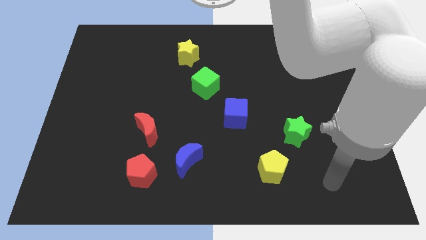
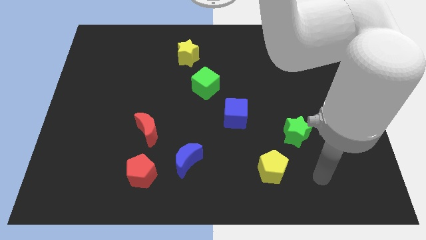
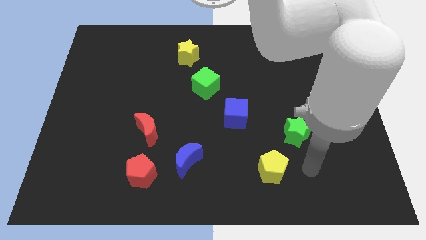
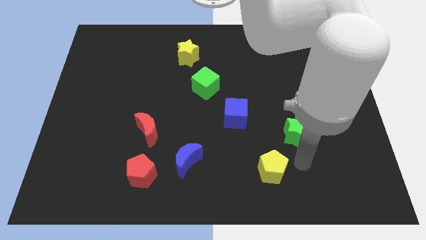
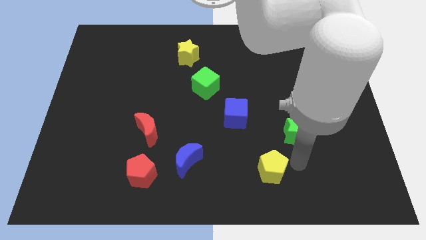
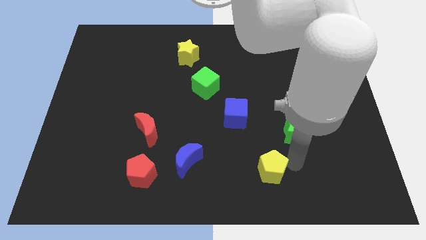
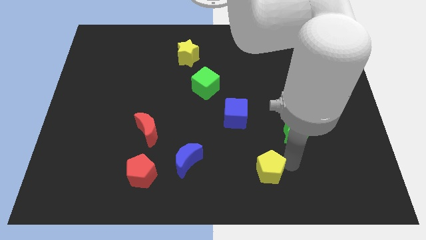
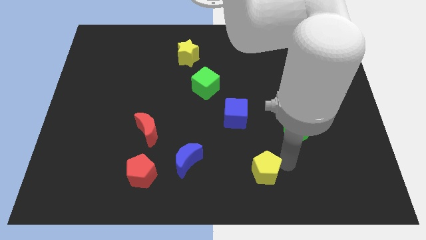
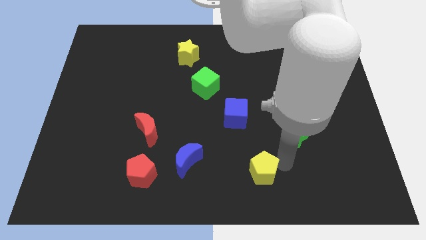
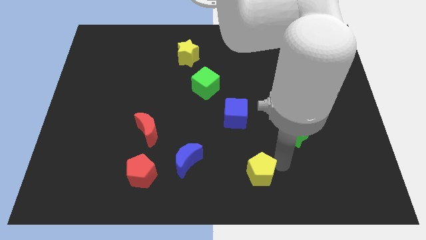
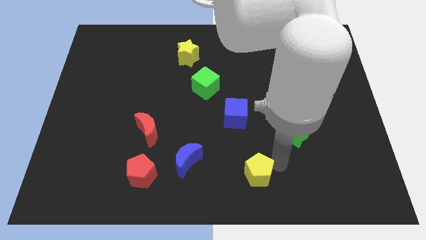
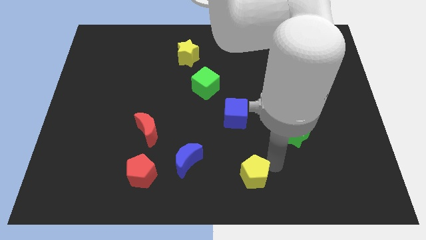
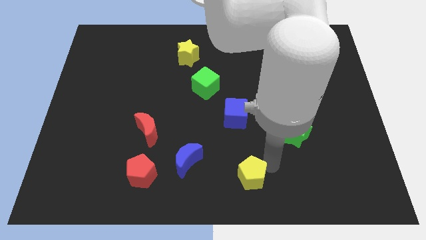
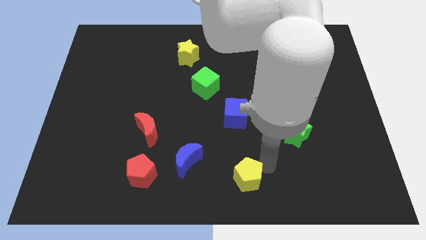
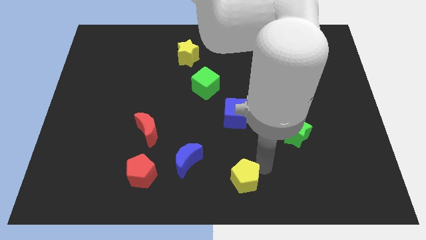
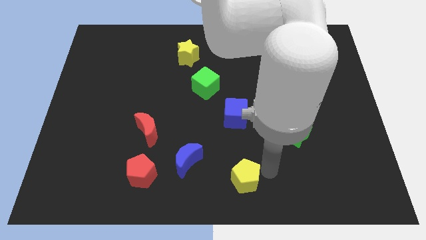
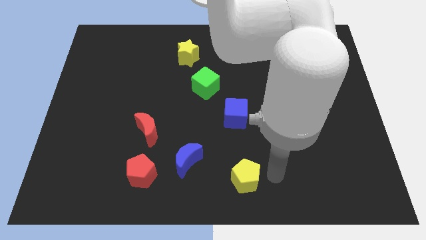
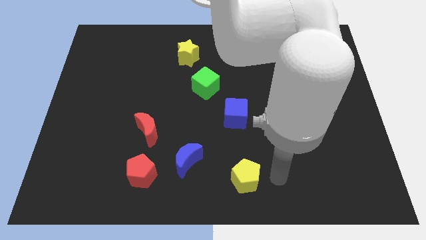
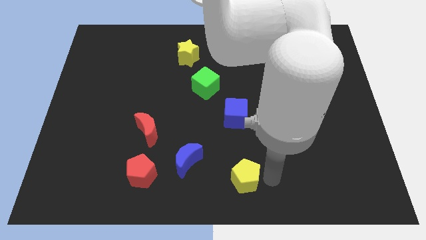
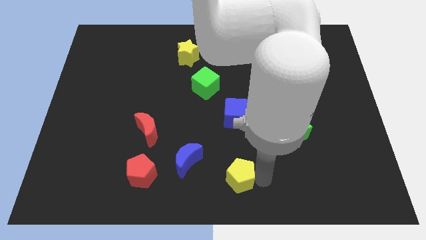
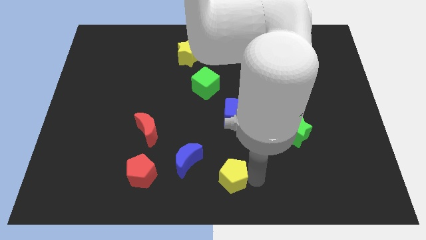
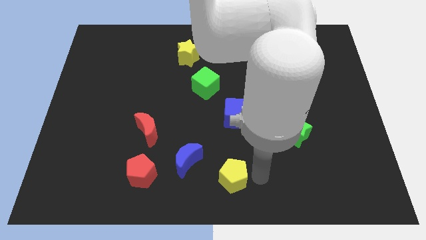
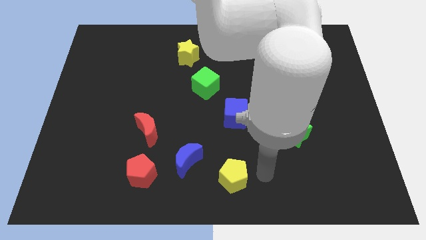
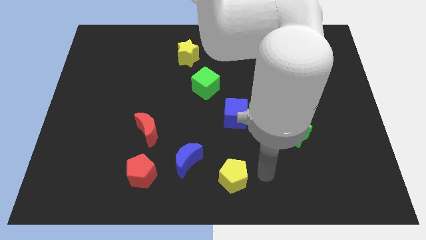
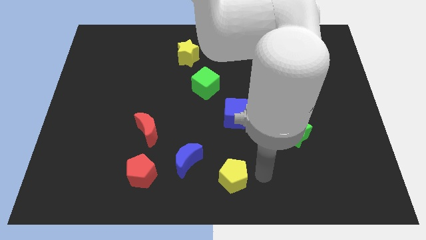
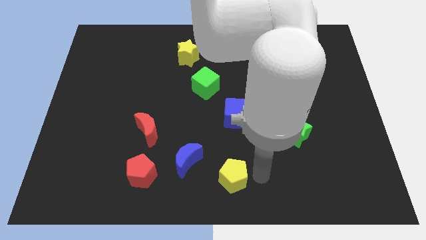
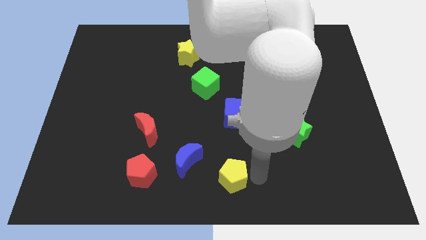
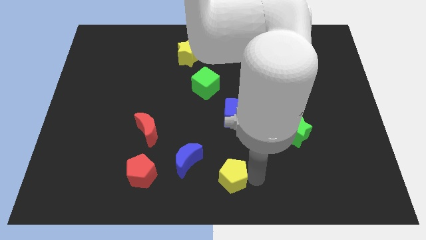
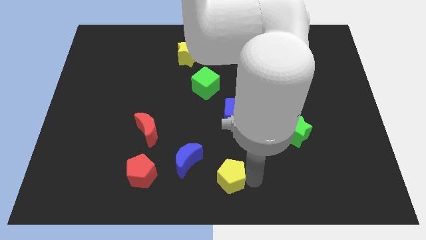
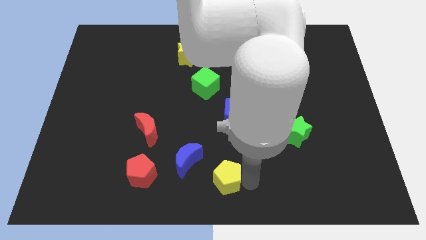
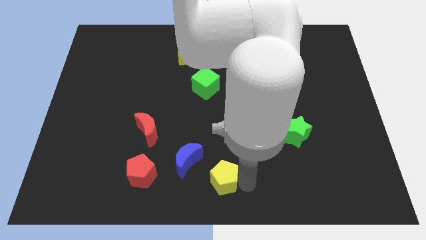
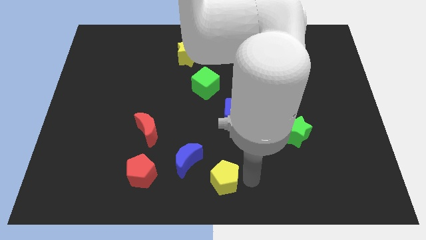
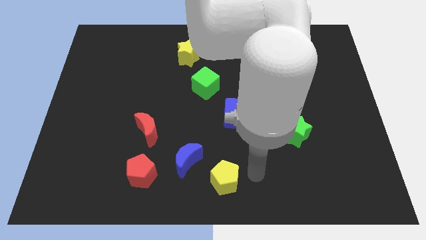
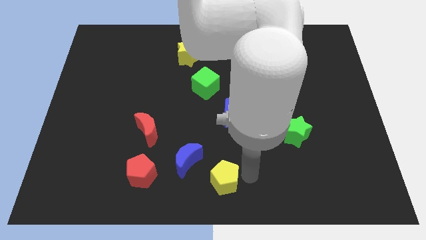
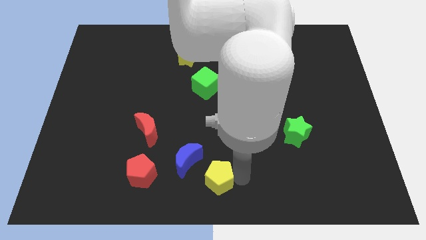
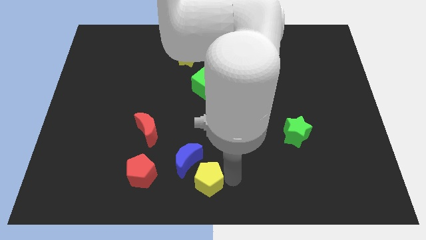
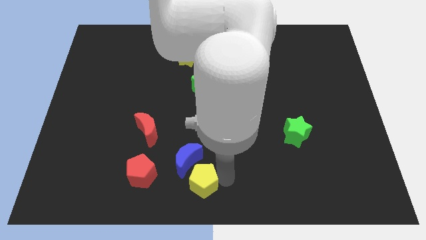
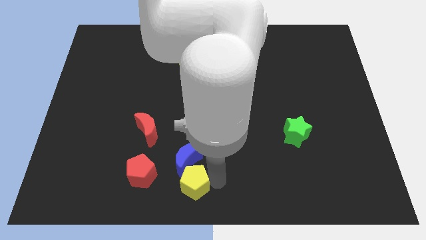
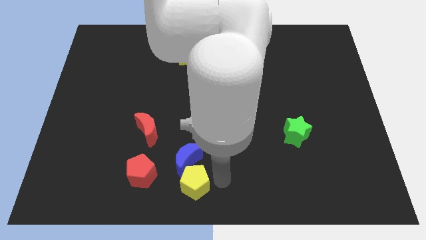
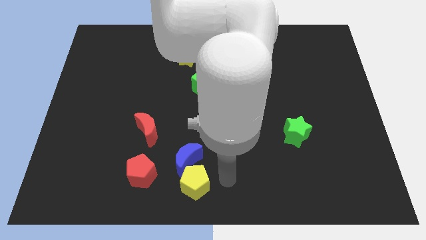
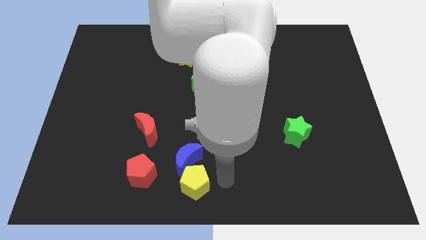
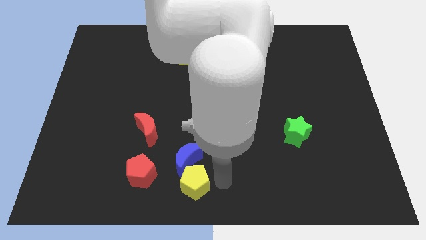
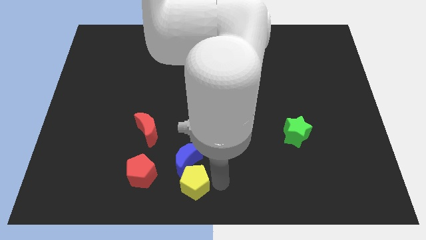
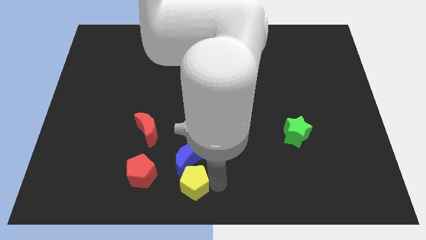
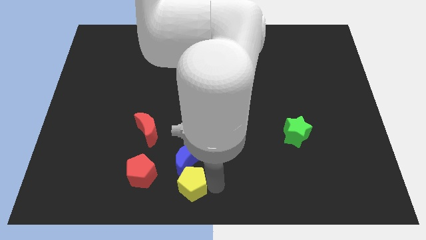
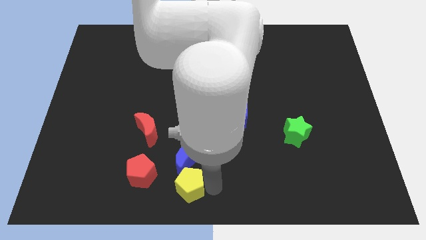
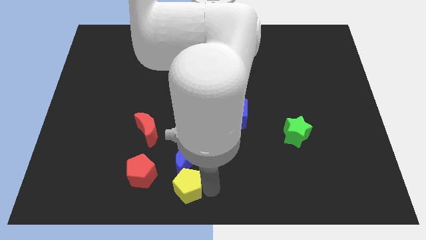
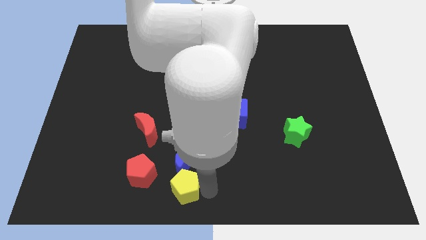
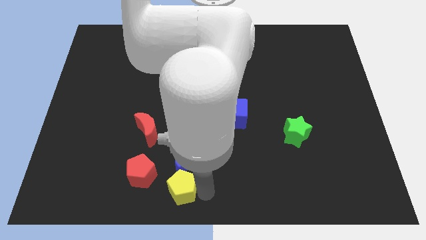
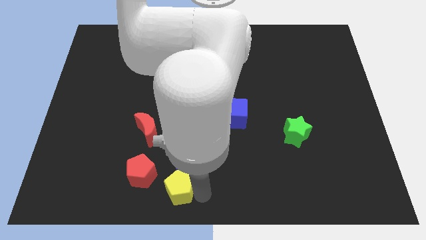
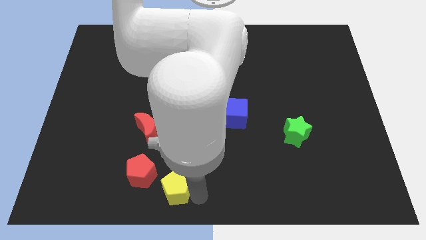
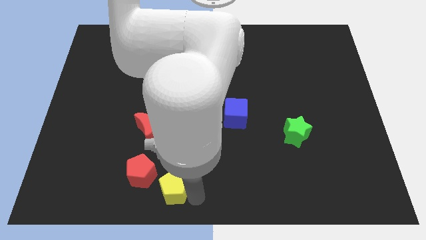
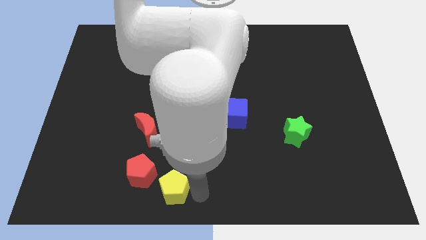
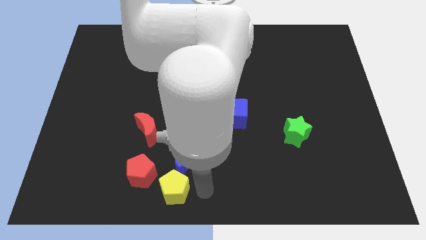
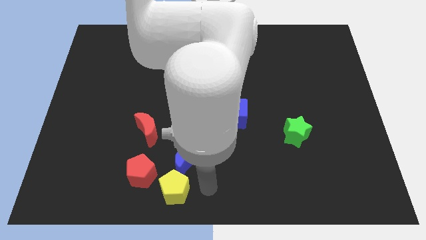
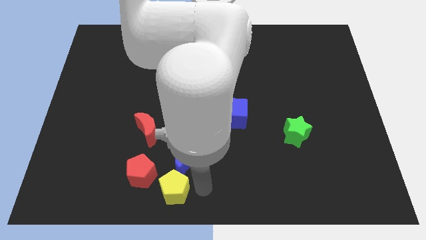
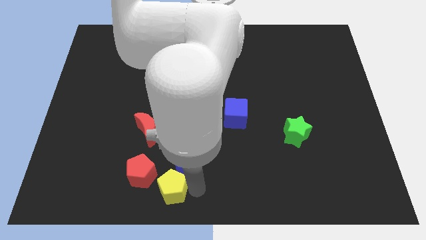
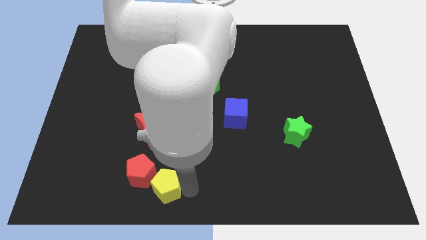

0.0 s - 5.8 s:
slide the yellow pentagon to the left

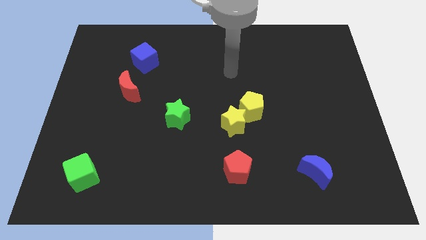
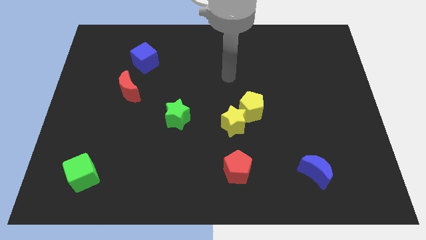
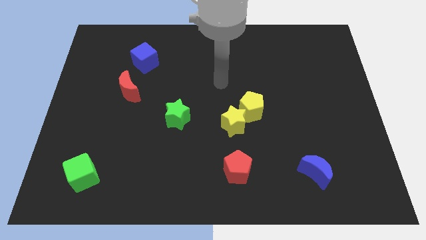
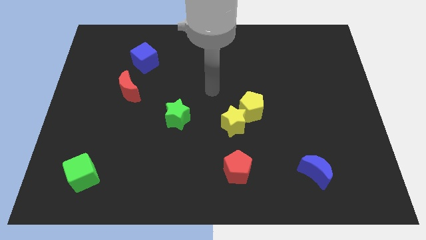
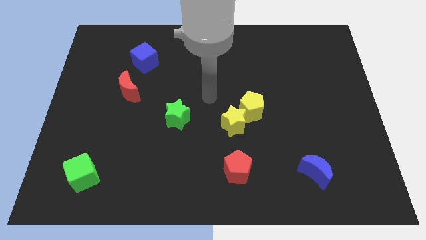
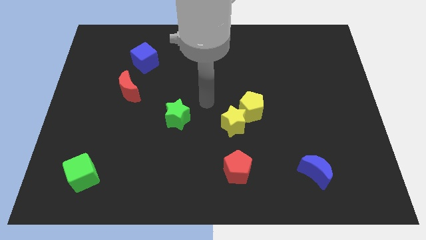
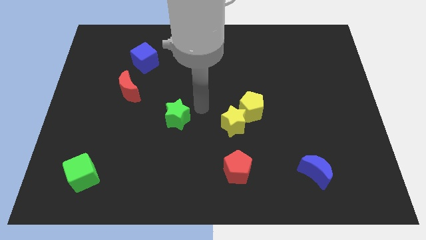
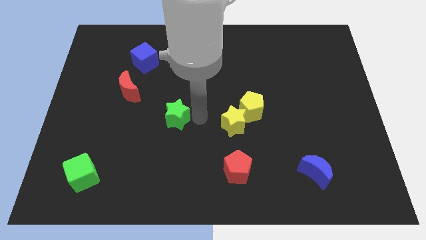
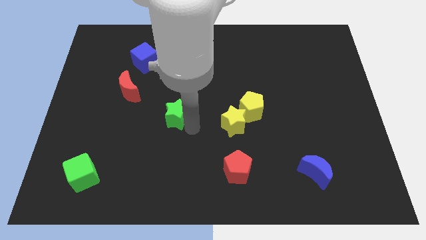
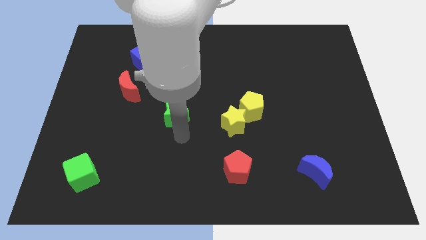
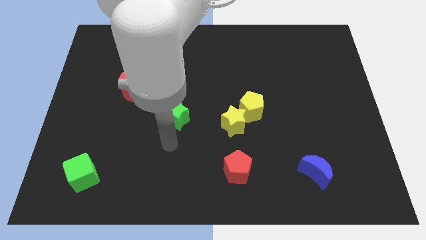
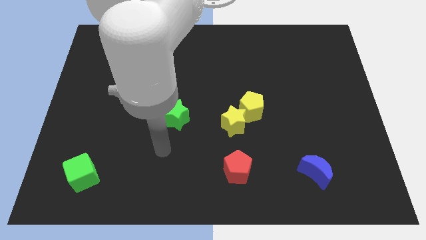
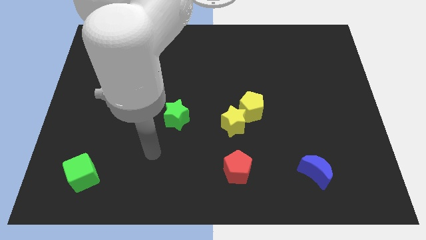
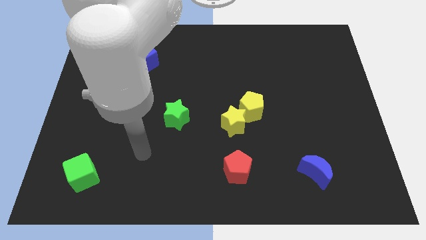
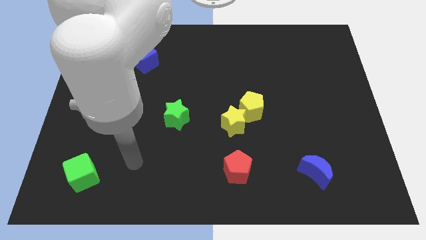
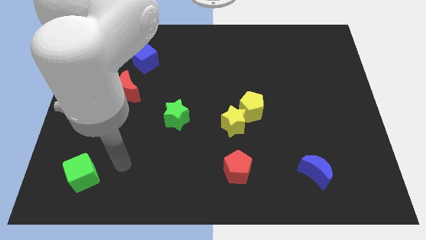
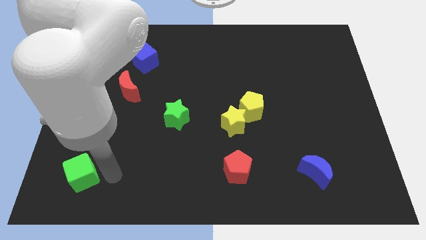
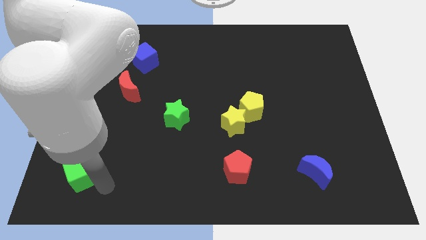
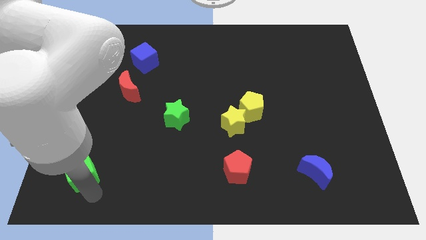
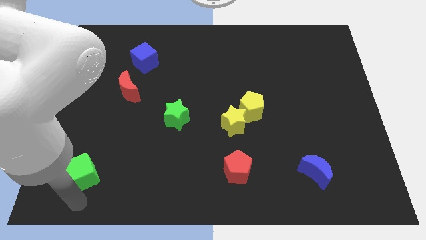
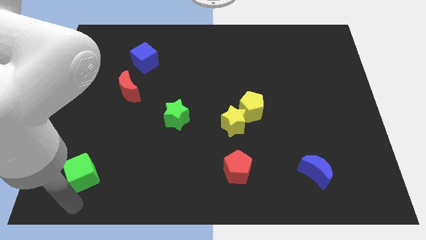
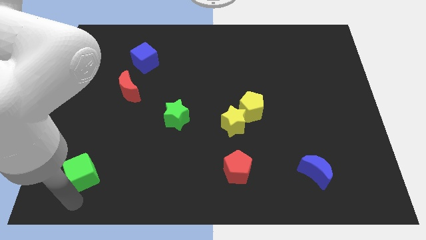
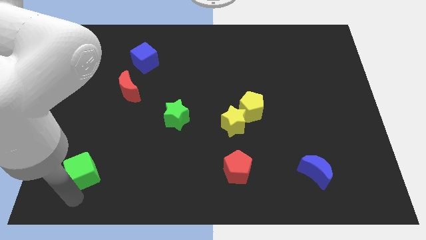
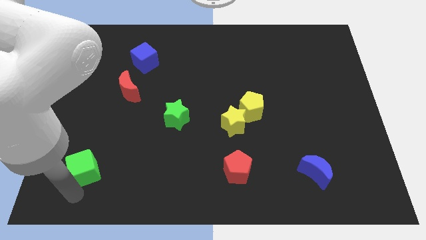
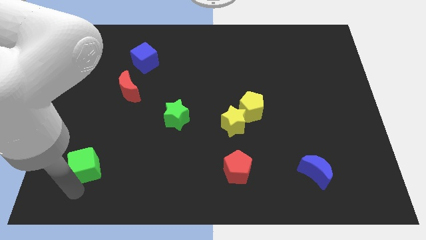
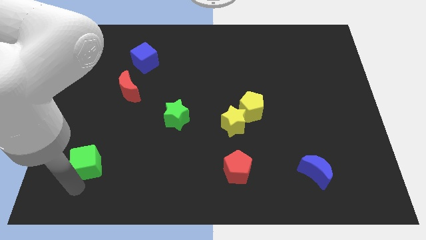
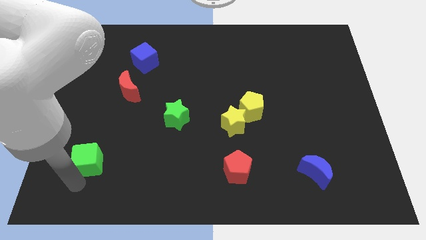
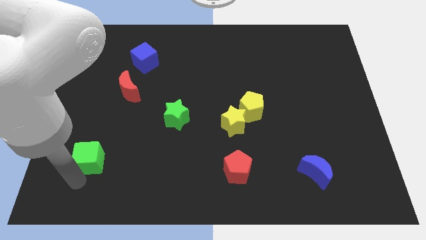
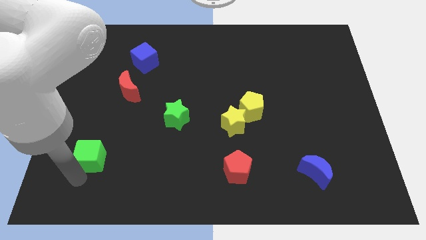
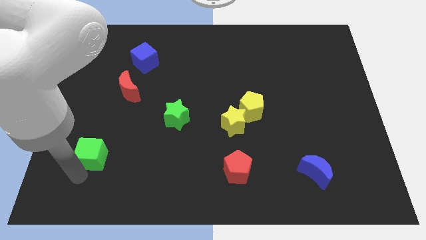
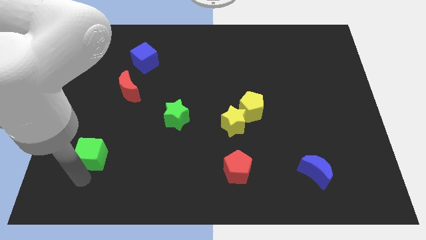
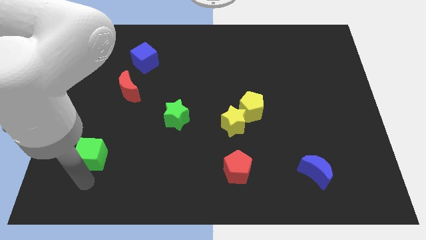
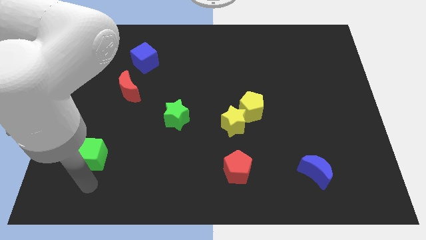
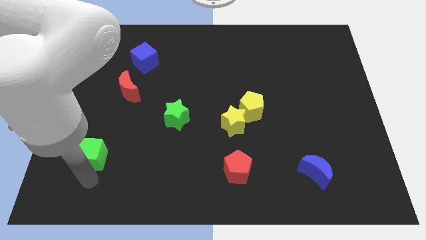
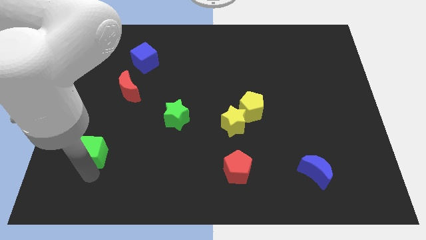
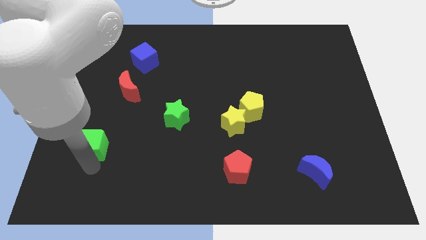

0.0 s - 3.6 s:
push the green cube up a little
